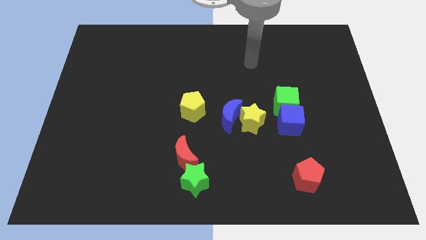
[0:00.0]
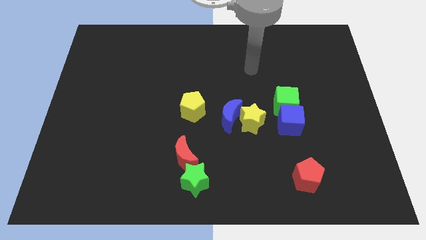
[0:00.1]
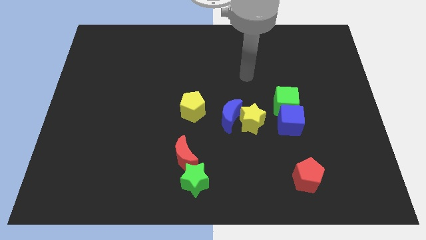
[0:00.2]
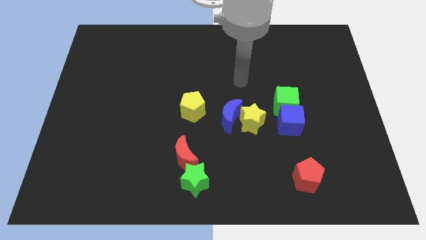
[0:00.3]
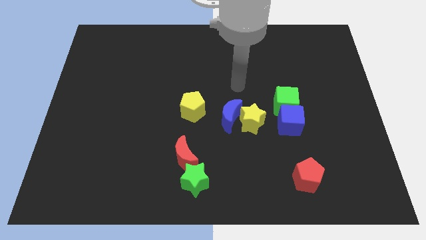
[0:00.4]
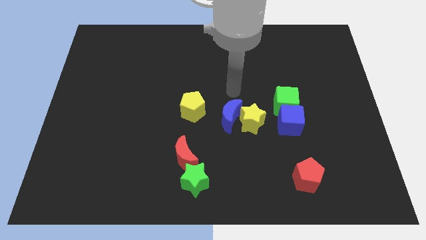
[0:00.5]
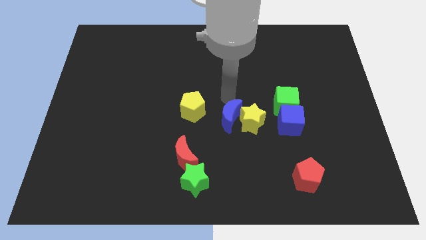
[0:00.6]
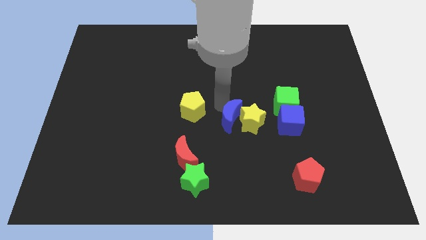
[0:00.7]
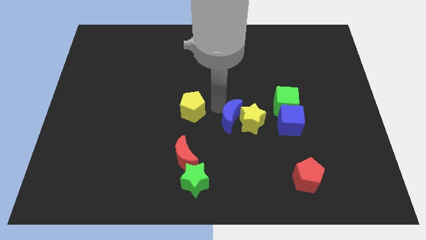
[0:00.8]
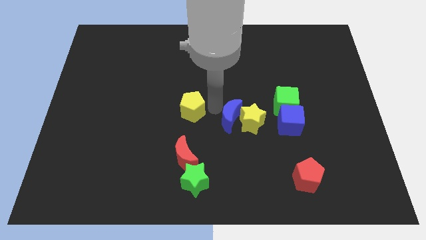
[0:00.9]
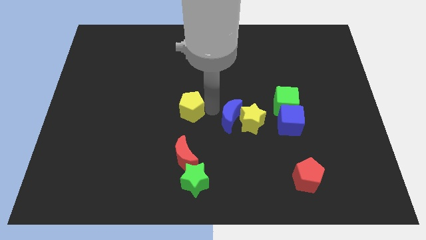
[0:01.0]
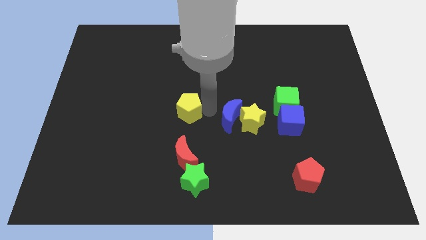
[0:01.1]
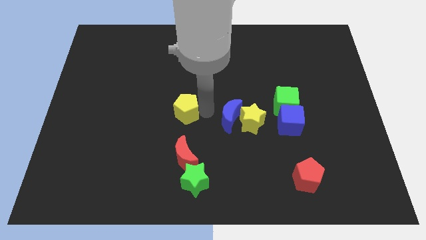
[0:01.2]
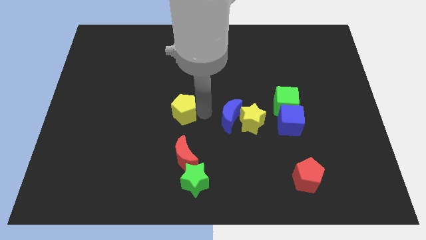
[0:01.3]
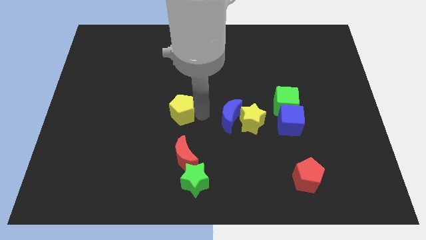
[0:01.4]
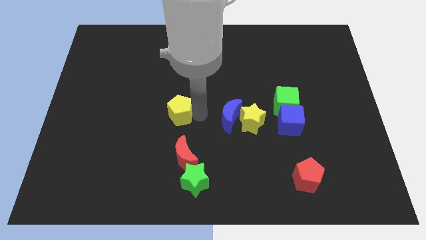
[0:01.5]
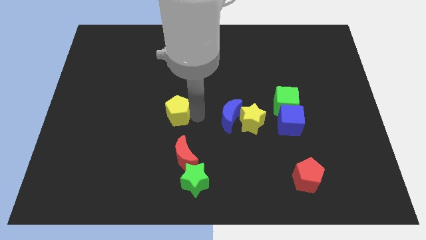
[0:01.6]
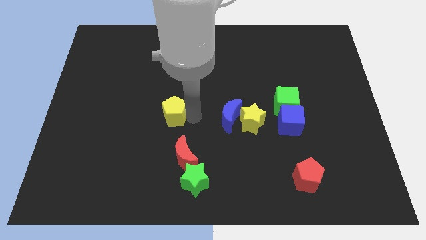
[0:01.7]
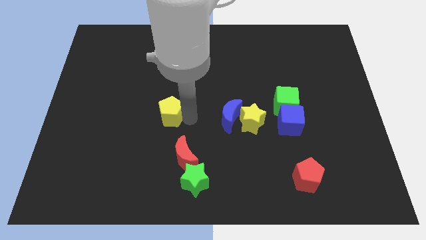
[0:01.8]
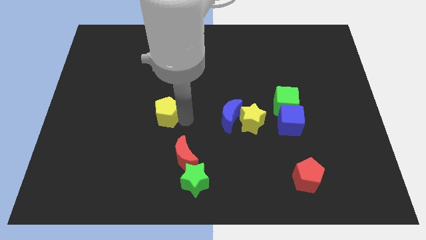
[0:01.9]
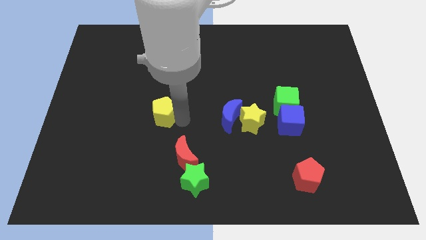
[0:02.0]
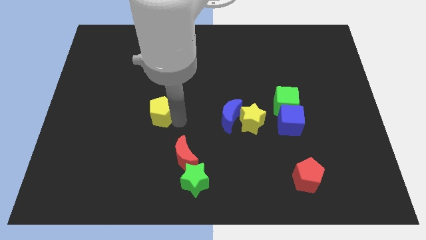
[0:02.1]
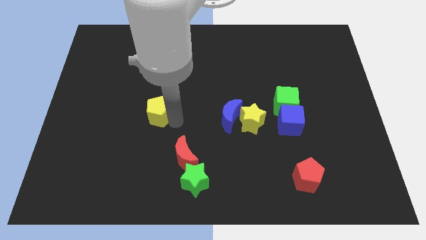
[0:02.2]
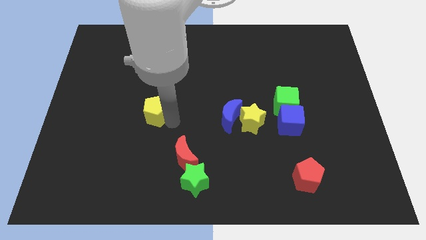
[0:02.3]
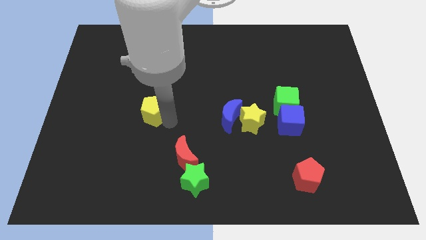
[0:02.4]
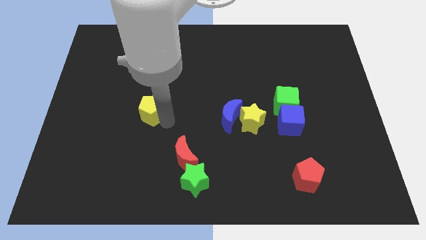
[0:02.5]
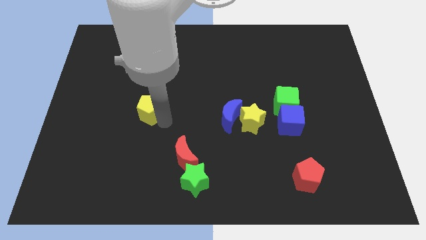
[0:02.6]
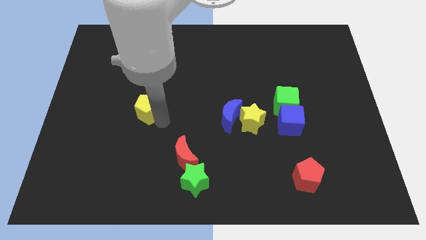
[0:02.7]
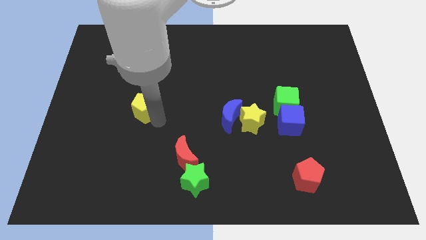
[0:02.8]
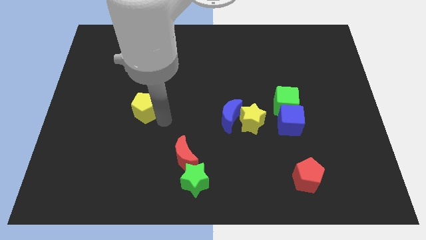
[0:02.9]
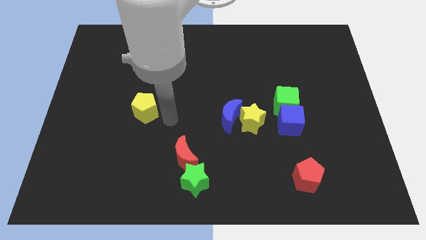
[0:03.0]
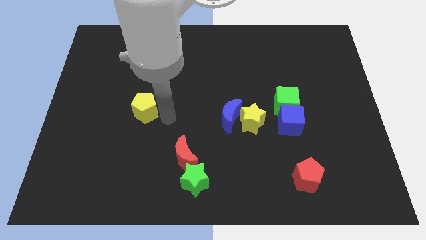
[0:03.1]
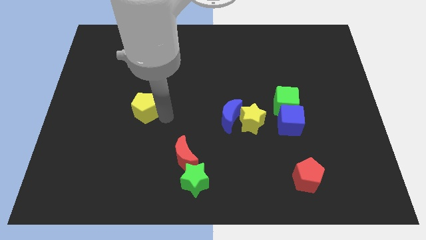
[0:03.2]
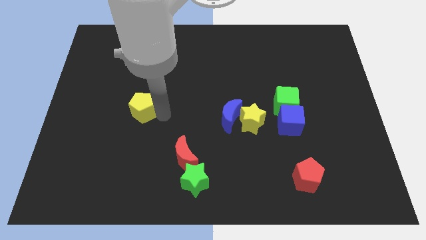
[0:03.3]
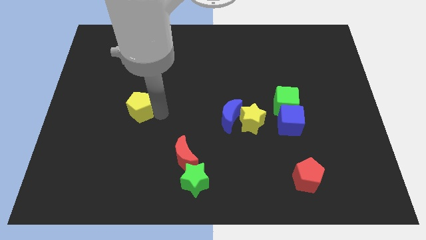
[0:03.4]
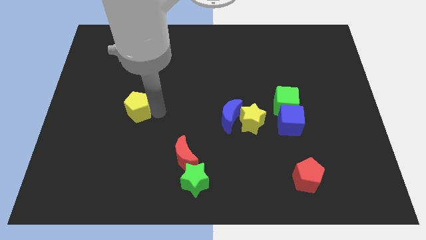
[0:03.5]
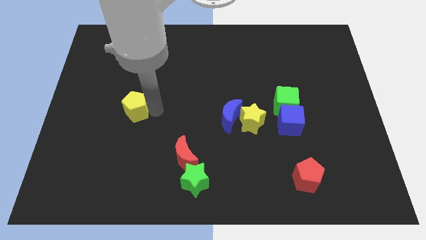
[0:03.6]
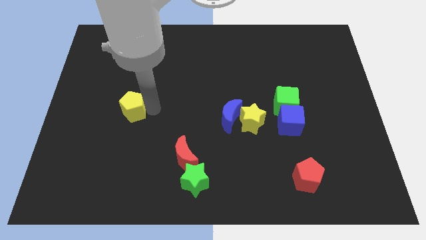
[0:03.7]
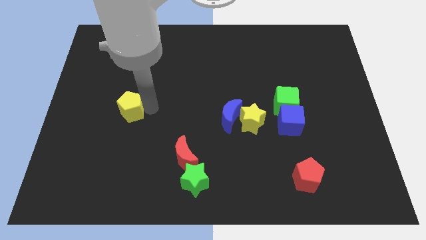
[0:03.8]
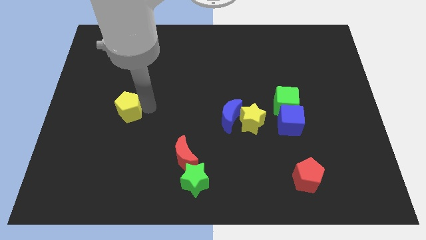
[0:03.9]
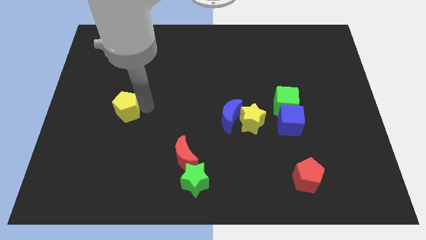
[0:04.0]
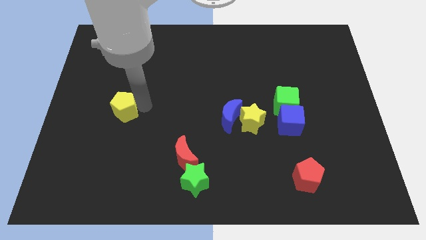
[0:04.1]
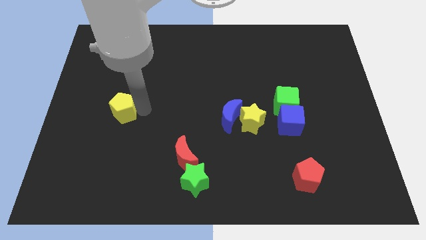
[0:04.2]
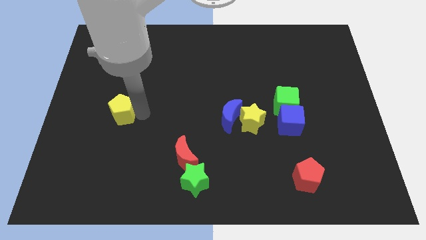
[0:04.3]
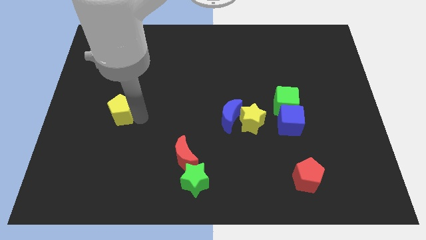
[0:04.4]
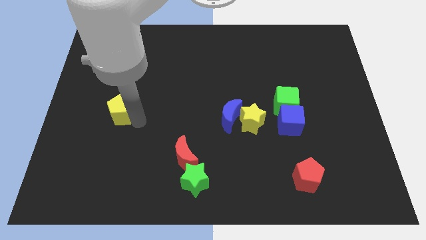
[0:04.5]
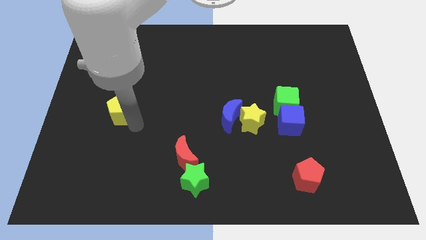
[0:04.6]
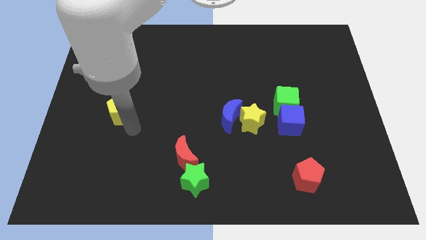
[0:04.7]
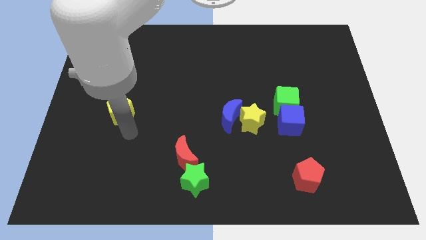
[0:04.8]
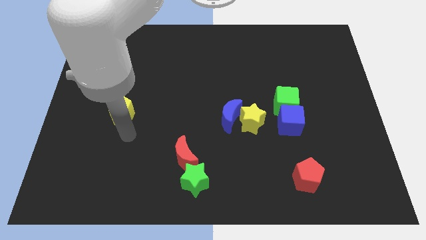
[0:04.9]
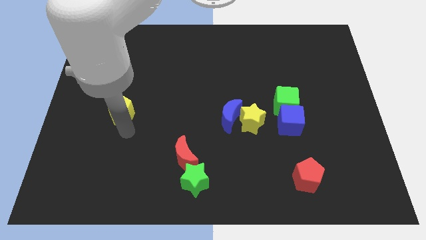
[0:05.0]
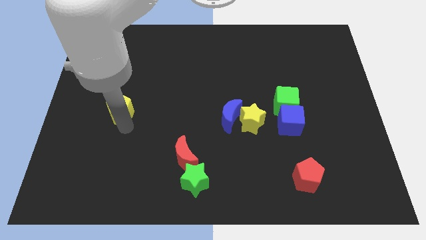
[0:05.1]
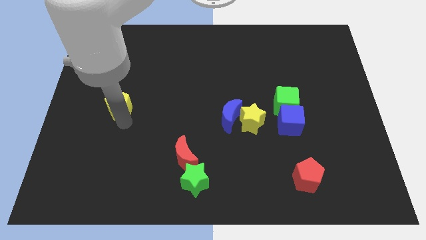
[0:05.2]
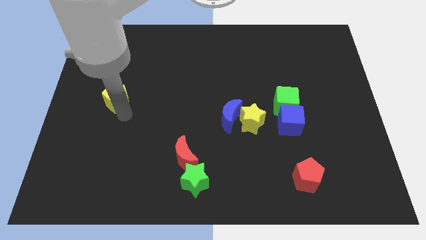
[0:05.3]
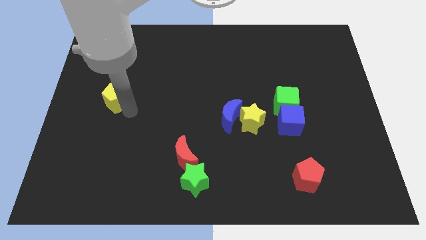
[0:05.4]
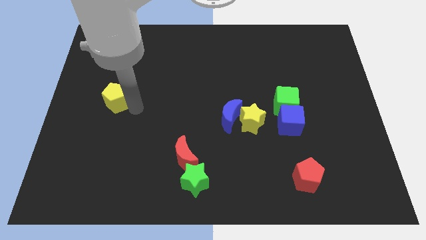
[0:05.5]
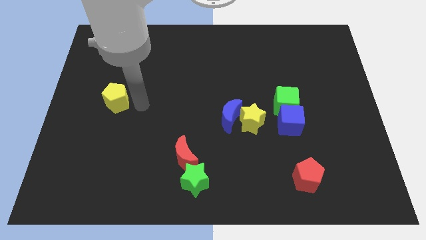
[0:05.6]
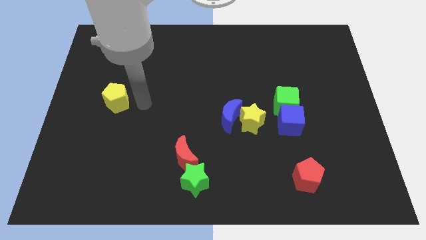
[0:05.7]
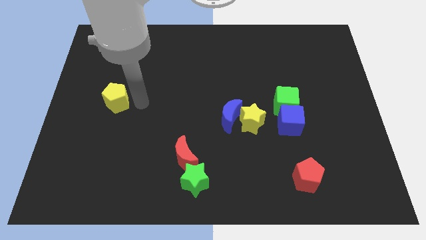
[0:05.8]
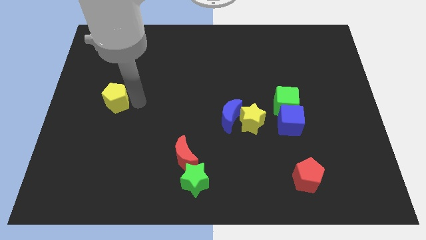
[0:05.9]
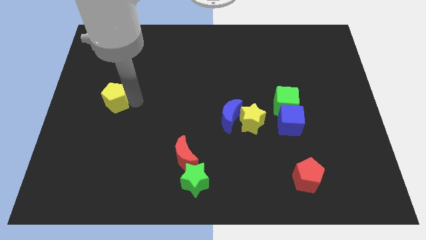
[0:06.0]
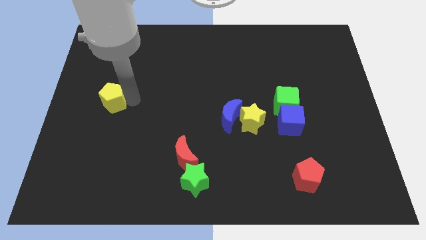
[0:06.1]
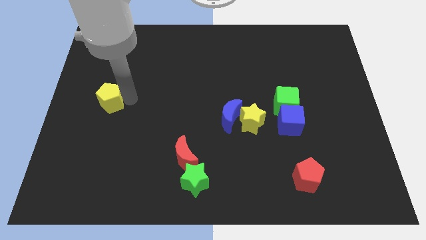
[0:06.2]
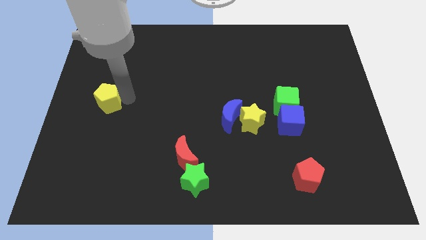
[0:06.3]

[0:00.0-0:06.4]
slide the yellow pentagon to the left side

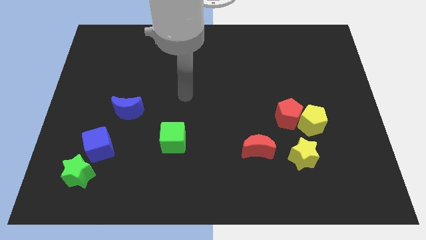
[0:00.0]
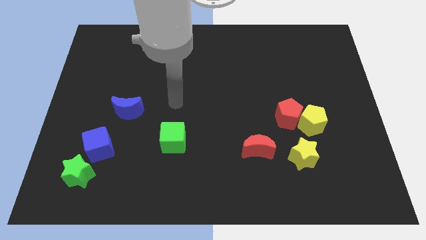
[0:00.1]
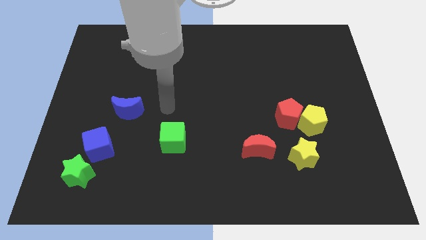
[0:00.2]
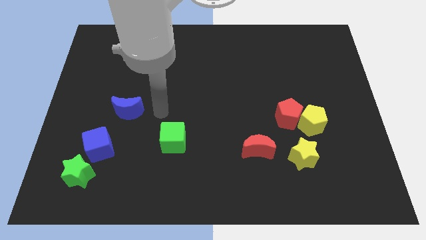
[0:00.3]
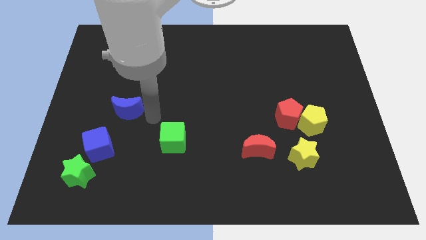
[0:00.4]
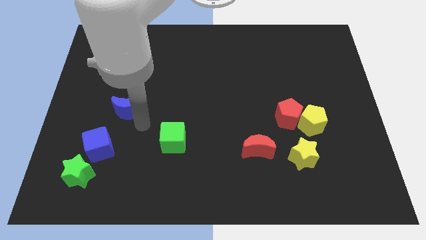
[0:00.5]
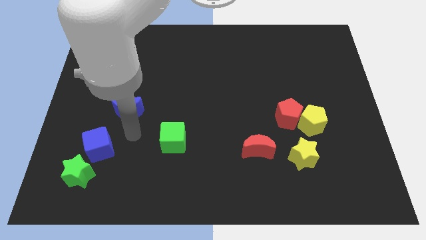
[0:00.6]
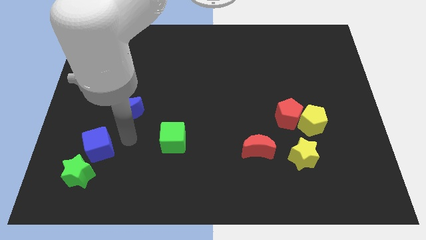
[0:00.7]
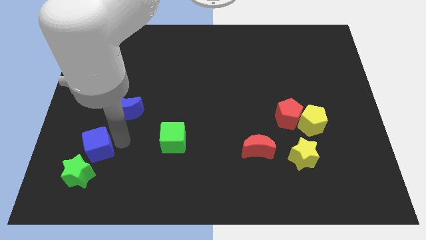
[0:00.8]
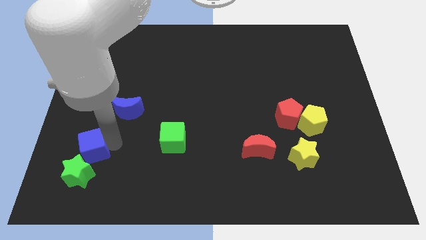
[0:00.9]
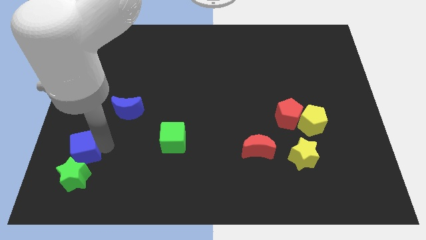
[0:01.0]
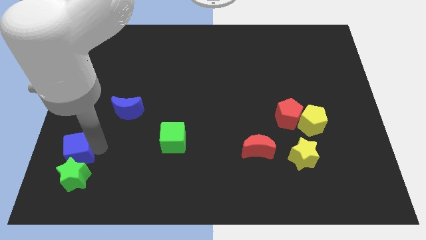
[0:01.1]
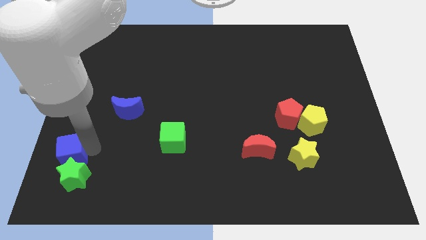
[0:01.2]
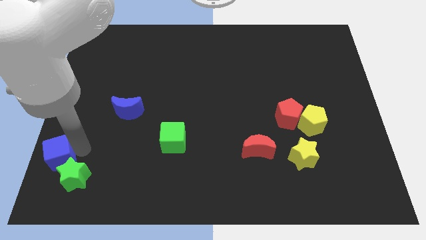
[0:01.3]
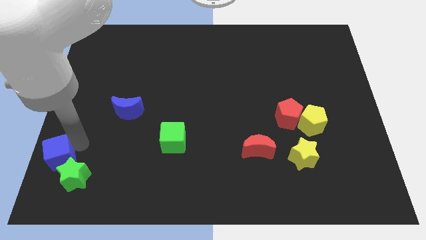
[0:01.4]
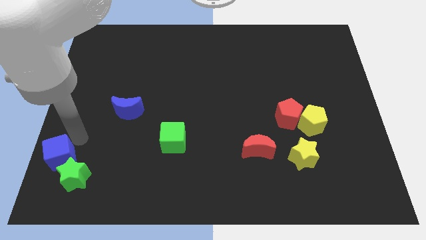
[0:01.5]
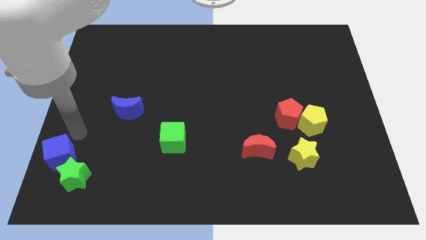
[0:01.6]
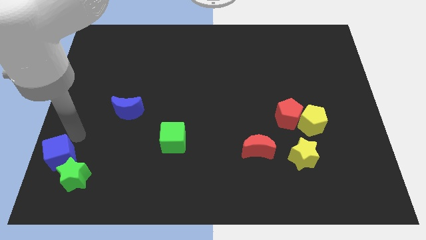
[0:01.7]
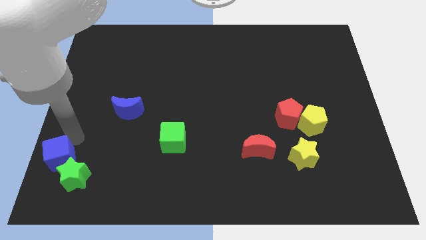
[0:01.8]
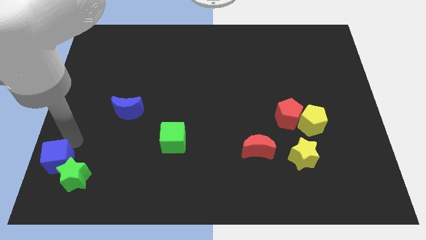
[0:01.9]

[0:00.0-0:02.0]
slide the blue cube to the bottom left of the board
